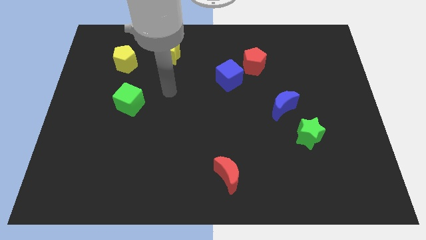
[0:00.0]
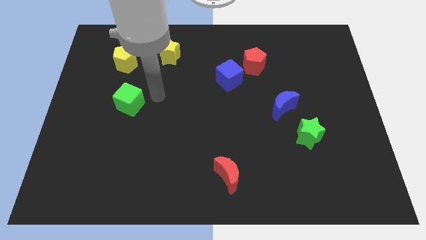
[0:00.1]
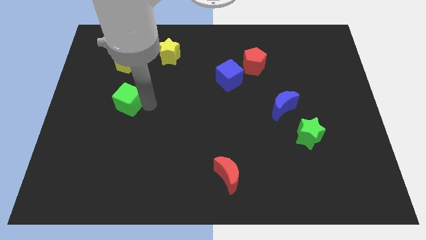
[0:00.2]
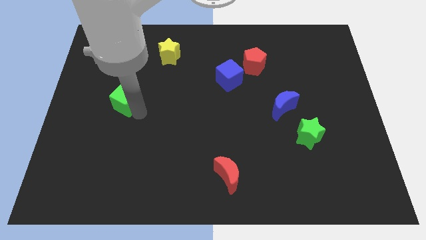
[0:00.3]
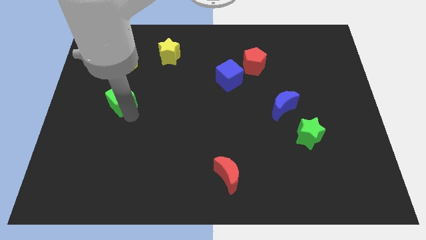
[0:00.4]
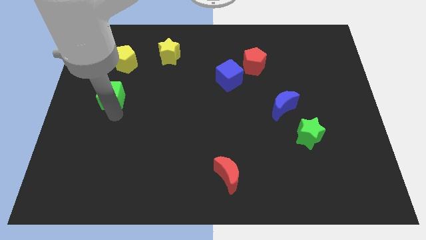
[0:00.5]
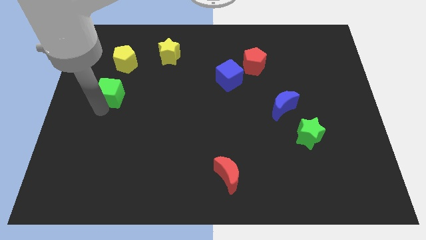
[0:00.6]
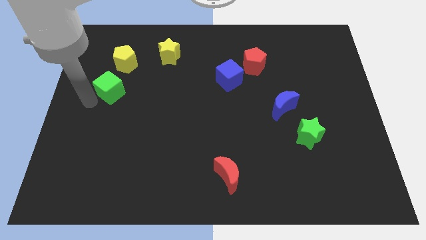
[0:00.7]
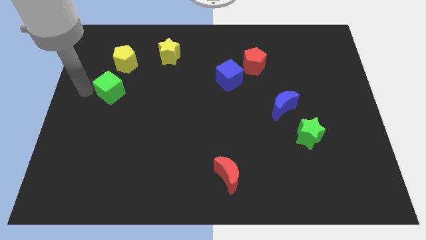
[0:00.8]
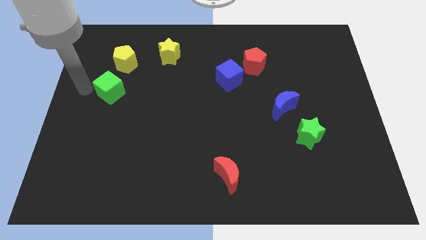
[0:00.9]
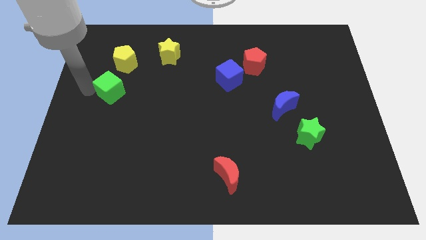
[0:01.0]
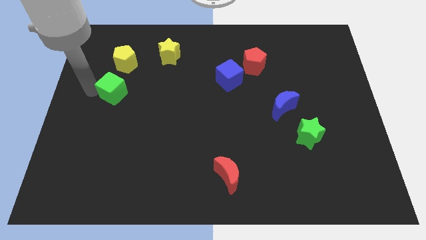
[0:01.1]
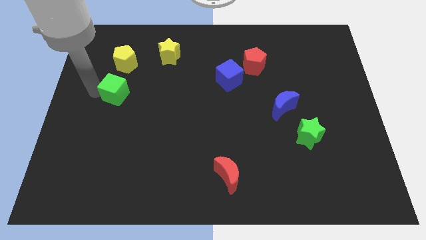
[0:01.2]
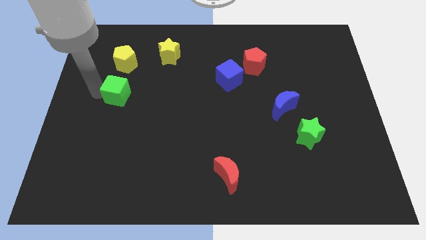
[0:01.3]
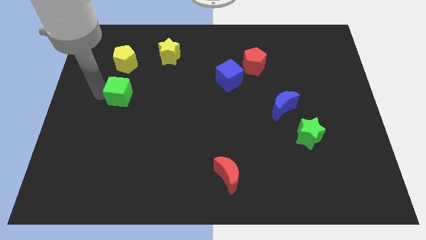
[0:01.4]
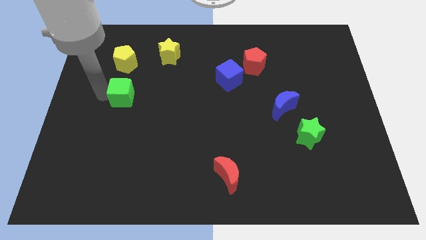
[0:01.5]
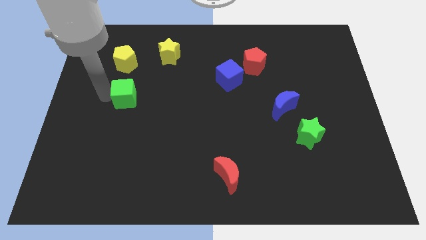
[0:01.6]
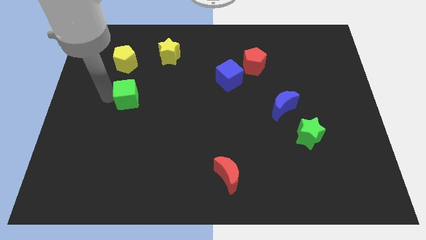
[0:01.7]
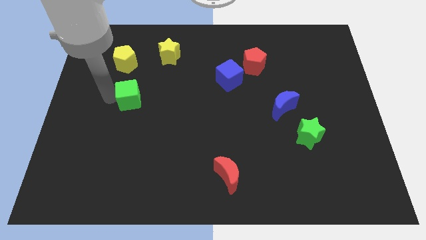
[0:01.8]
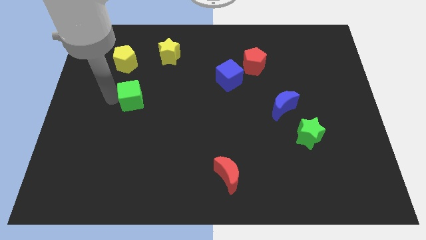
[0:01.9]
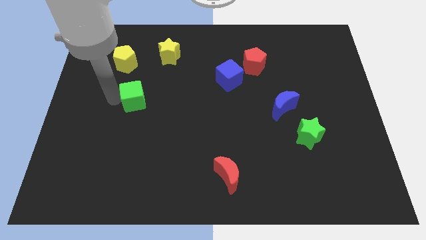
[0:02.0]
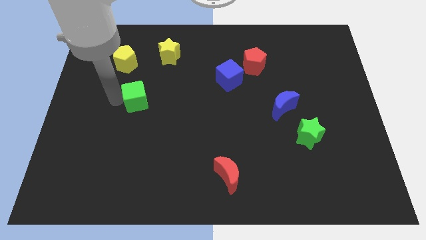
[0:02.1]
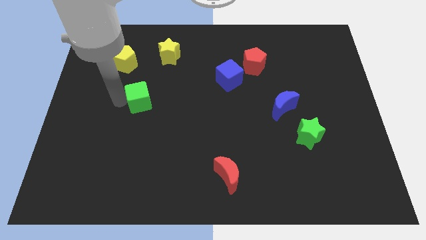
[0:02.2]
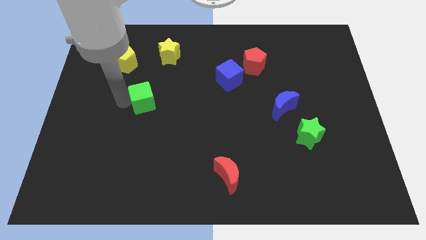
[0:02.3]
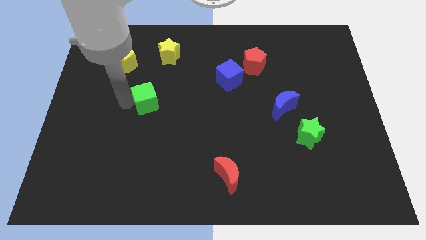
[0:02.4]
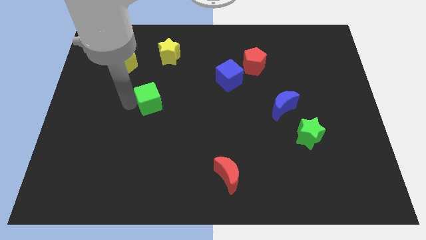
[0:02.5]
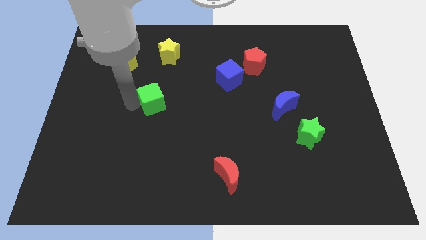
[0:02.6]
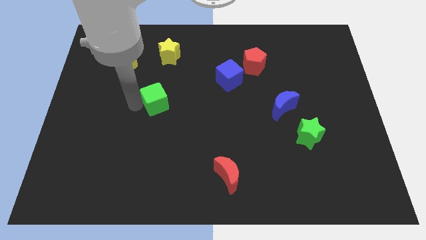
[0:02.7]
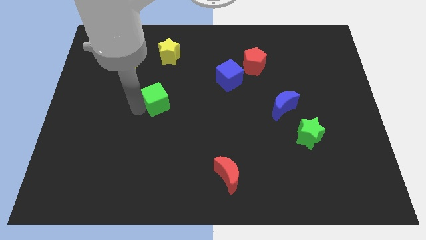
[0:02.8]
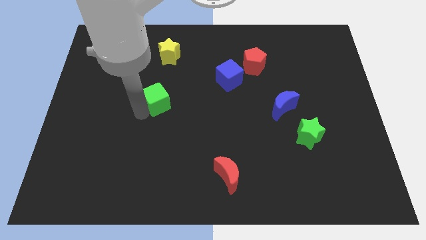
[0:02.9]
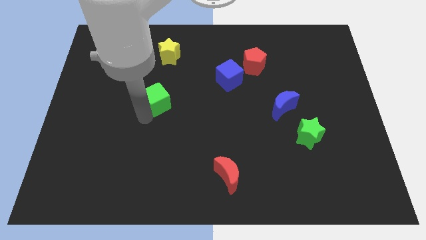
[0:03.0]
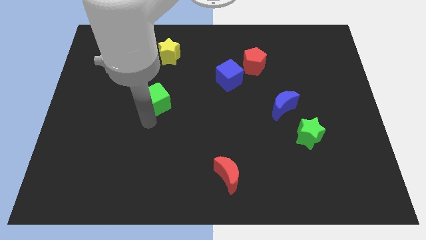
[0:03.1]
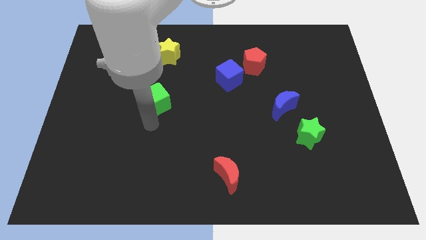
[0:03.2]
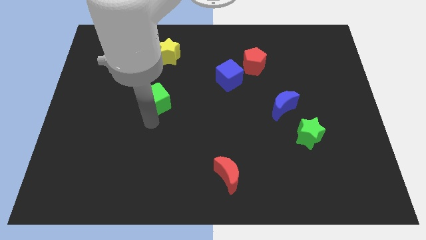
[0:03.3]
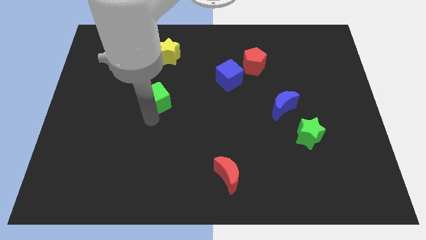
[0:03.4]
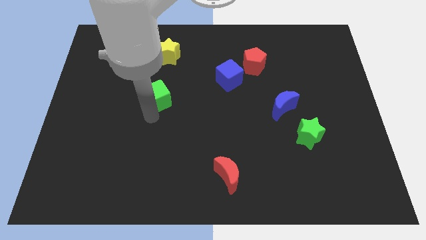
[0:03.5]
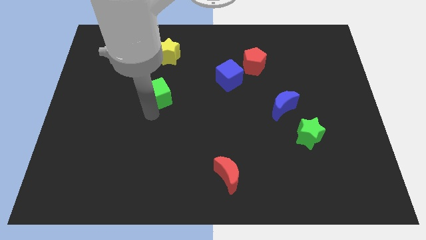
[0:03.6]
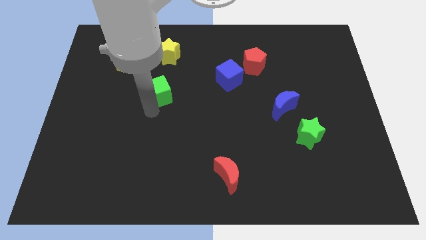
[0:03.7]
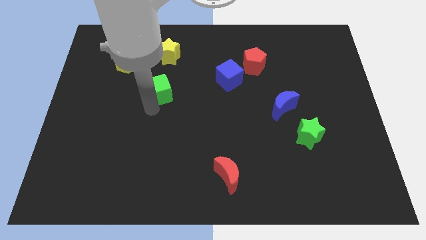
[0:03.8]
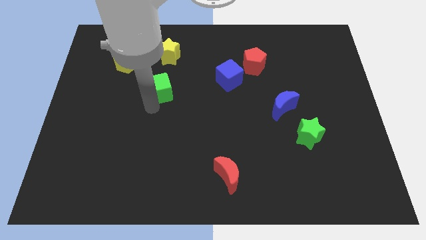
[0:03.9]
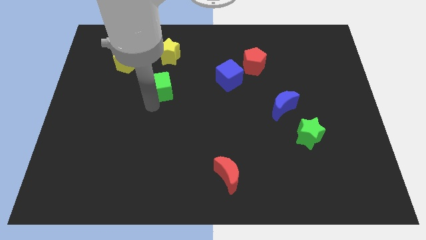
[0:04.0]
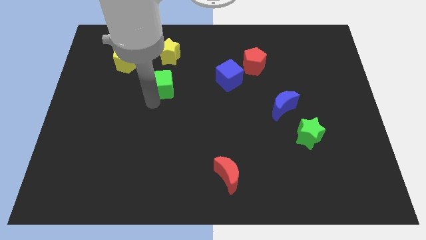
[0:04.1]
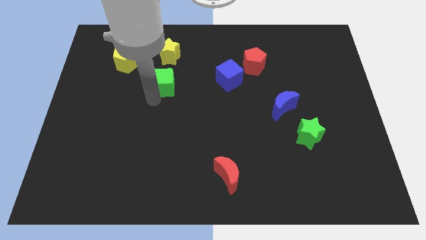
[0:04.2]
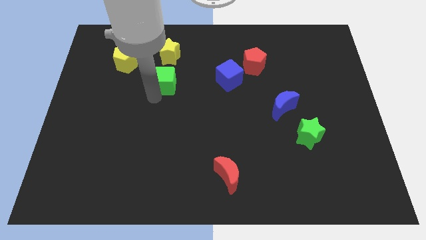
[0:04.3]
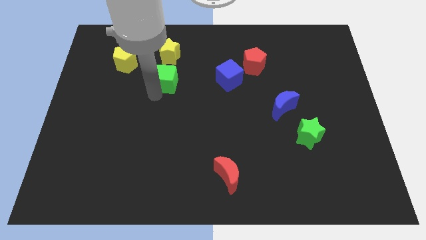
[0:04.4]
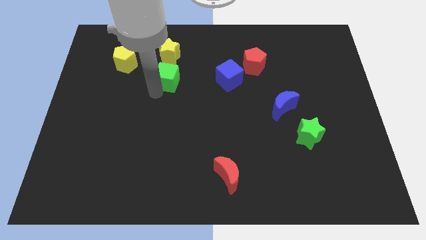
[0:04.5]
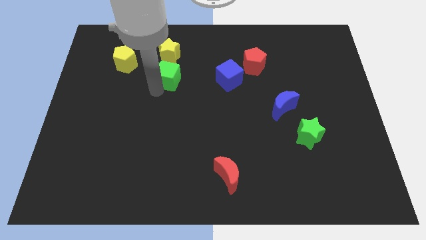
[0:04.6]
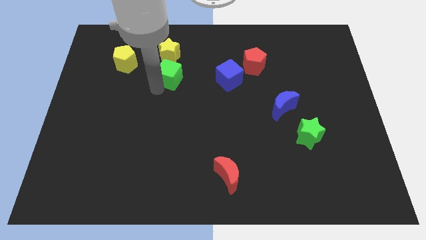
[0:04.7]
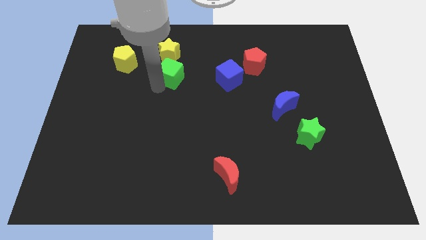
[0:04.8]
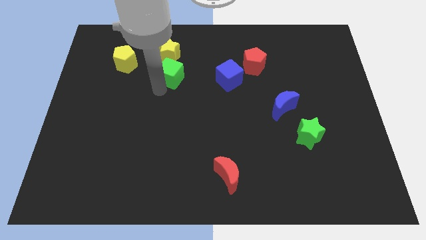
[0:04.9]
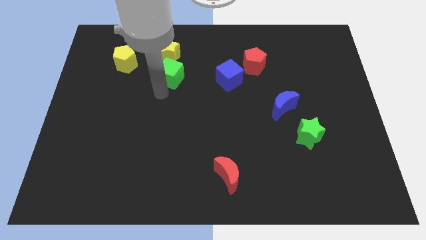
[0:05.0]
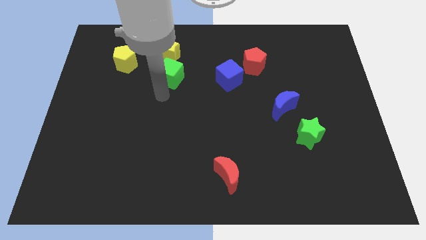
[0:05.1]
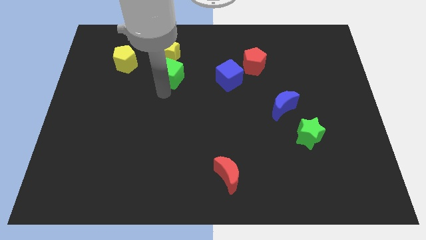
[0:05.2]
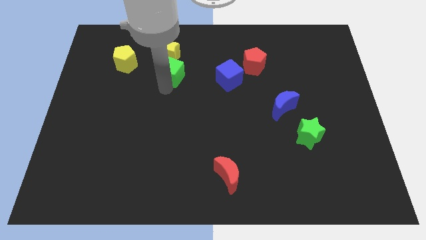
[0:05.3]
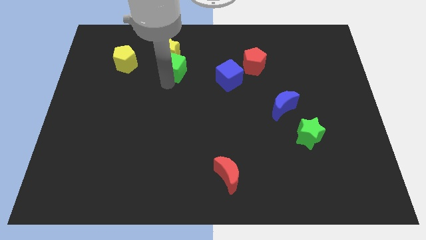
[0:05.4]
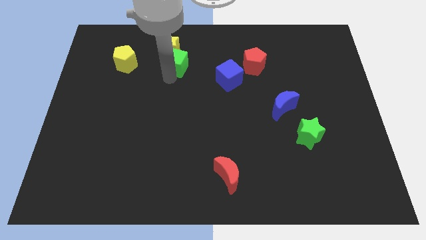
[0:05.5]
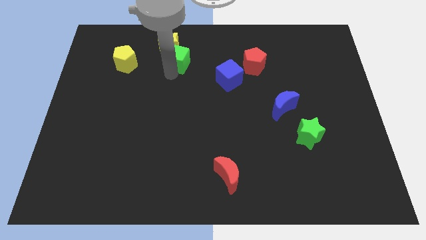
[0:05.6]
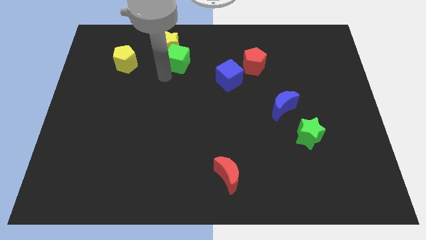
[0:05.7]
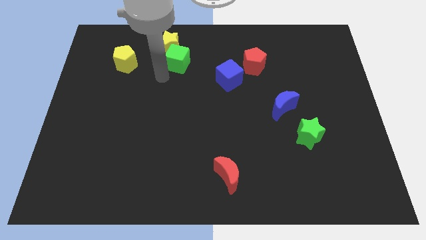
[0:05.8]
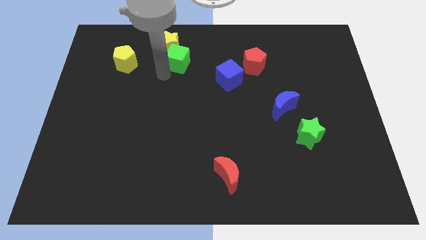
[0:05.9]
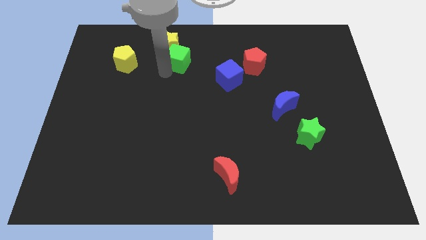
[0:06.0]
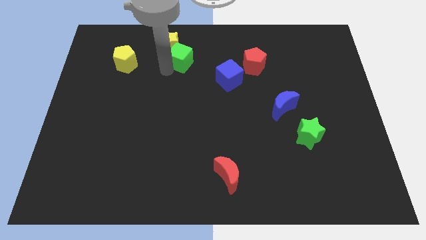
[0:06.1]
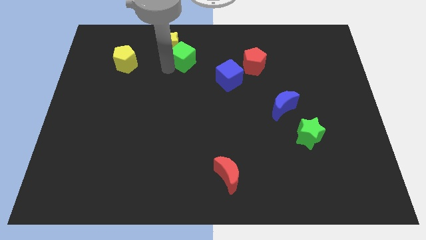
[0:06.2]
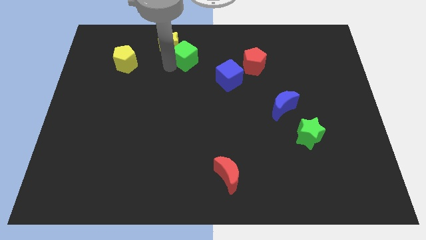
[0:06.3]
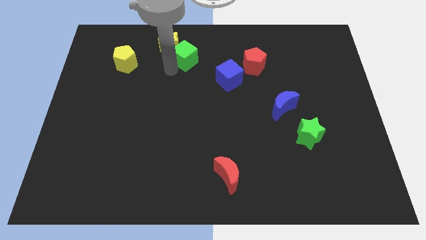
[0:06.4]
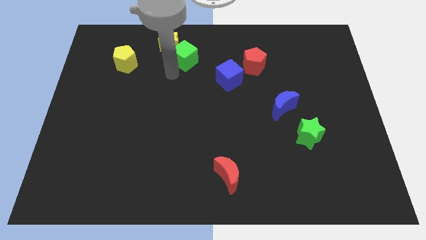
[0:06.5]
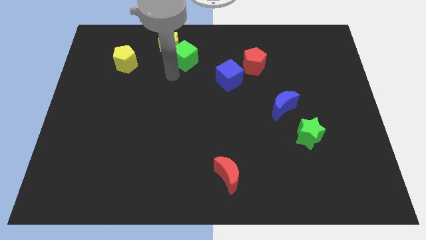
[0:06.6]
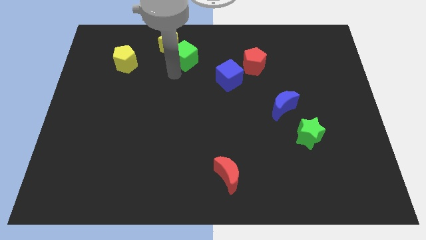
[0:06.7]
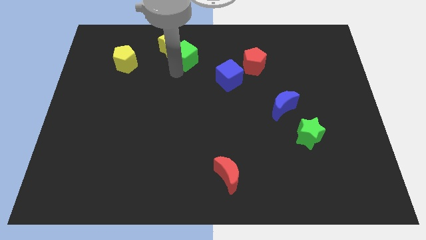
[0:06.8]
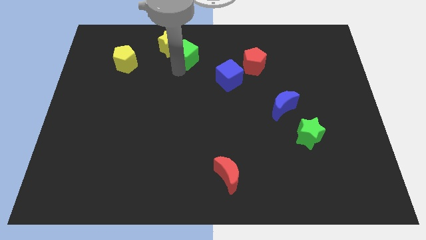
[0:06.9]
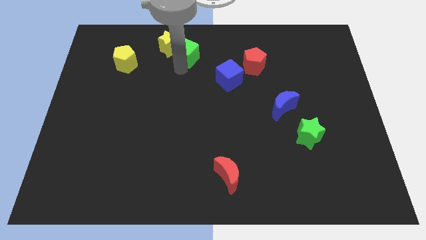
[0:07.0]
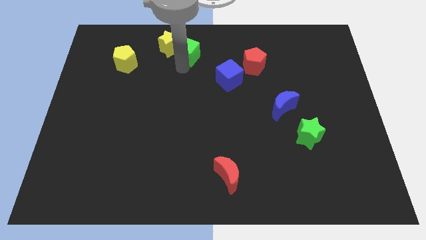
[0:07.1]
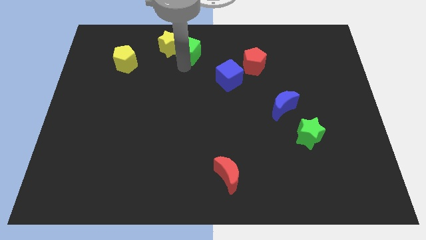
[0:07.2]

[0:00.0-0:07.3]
move the green cube to the towards your base

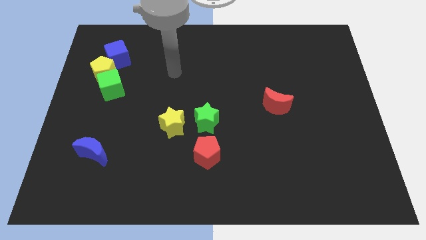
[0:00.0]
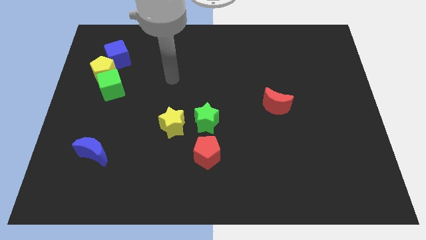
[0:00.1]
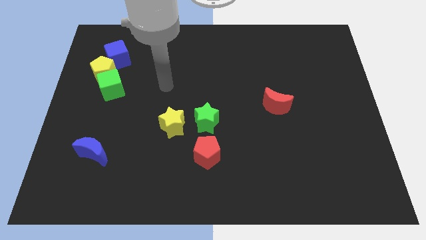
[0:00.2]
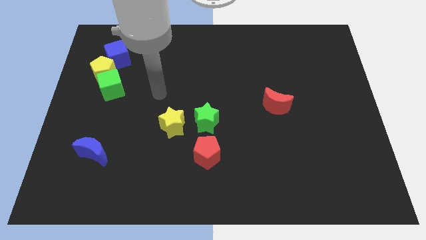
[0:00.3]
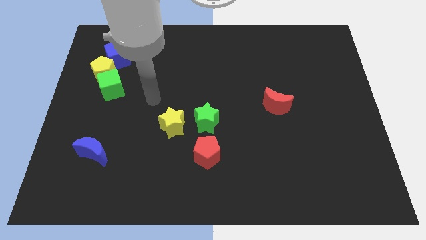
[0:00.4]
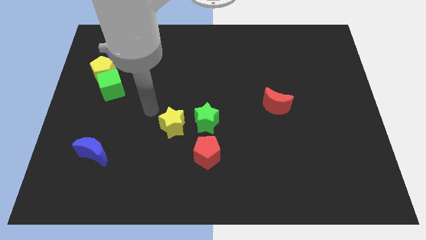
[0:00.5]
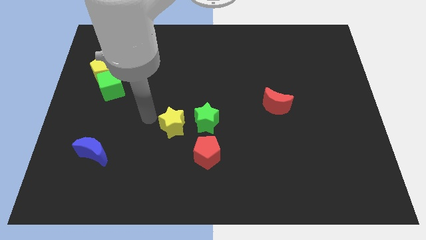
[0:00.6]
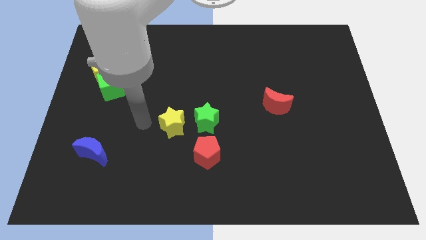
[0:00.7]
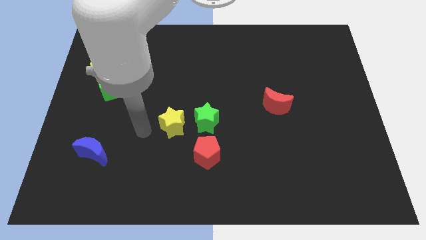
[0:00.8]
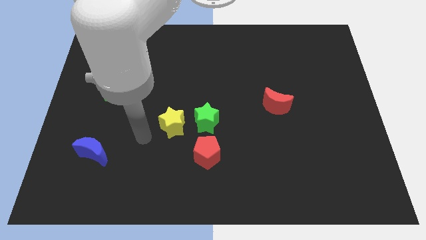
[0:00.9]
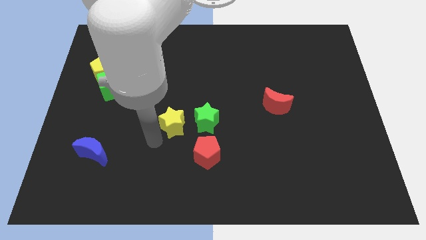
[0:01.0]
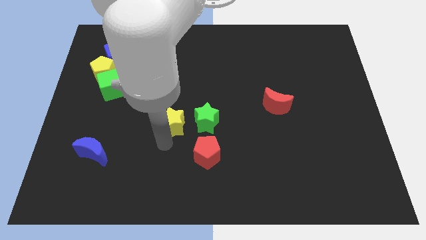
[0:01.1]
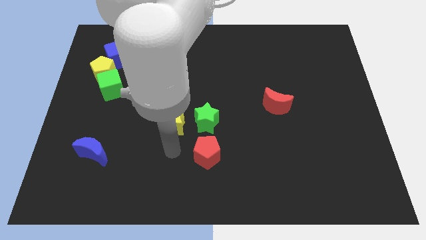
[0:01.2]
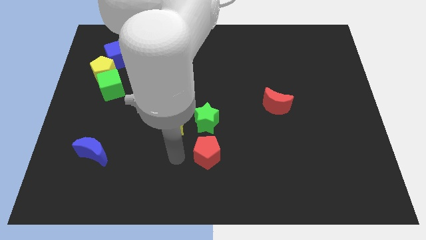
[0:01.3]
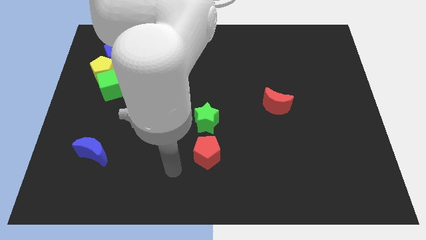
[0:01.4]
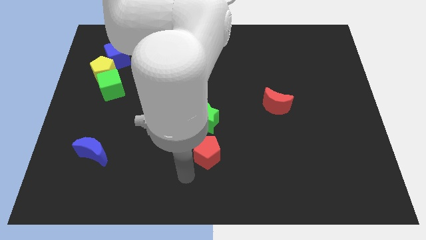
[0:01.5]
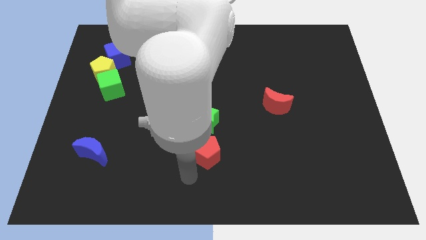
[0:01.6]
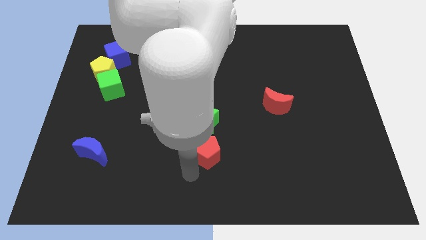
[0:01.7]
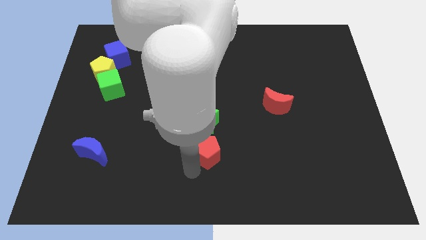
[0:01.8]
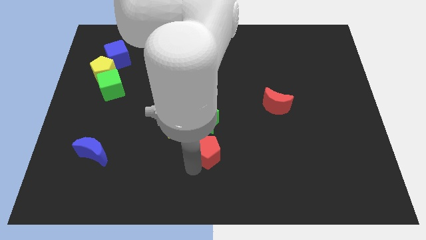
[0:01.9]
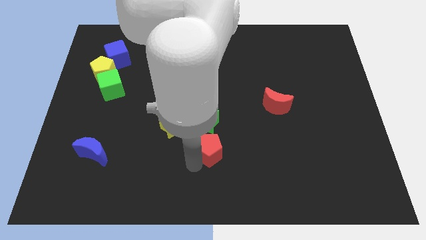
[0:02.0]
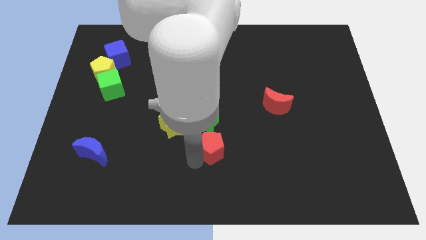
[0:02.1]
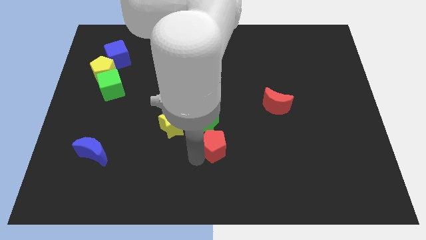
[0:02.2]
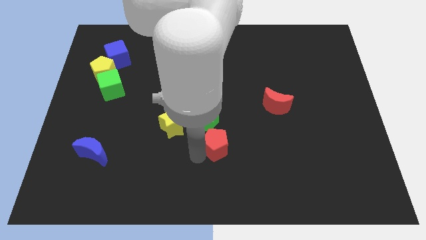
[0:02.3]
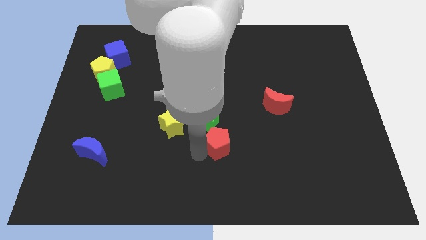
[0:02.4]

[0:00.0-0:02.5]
put the red pentagon to the middle
